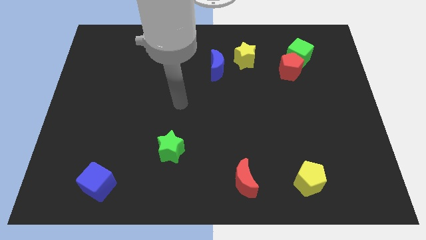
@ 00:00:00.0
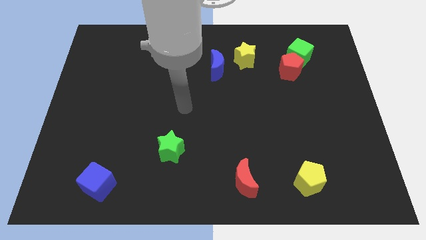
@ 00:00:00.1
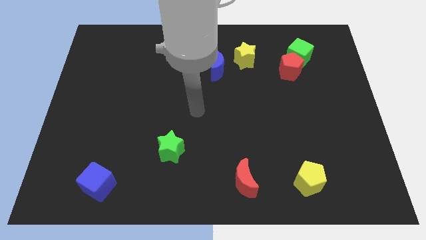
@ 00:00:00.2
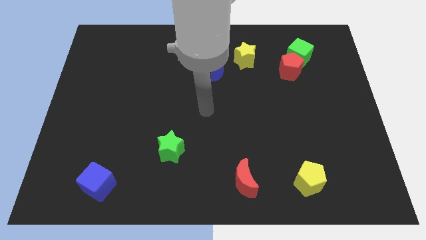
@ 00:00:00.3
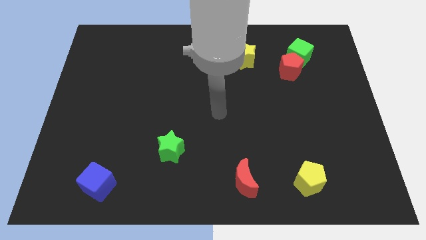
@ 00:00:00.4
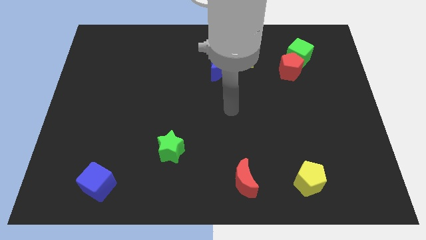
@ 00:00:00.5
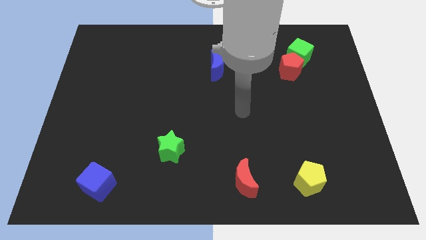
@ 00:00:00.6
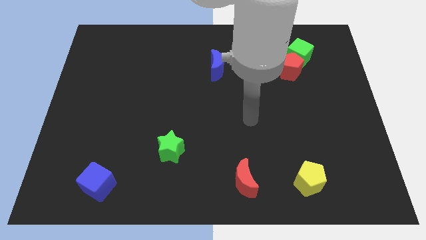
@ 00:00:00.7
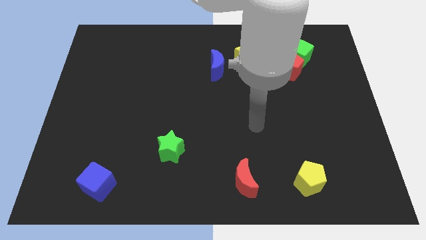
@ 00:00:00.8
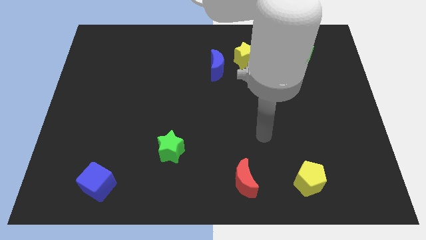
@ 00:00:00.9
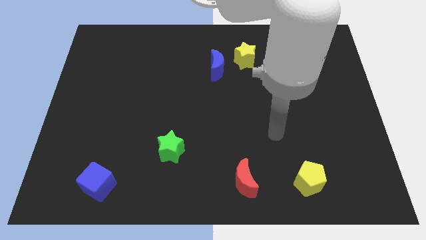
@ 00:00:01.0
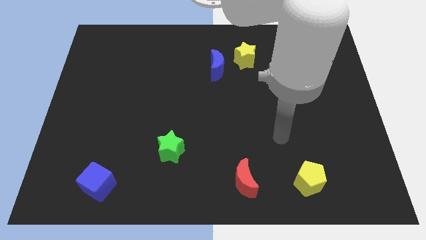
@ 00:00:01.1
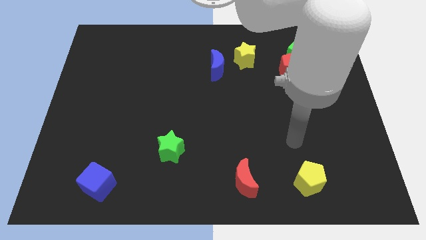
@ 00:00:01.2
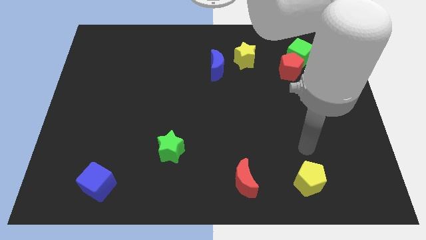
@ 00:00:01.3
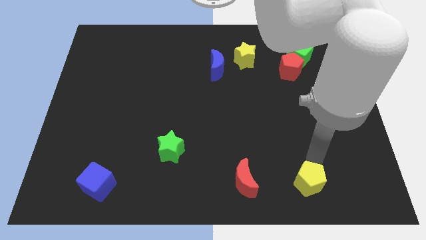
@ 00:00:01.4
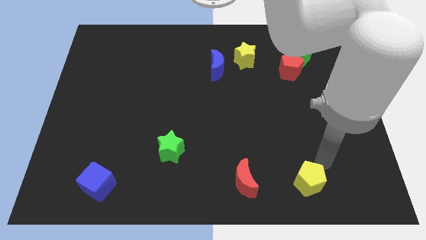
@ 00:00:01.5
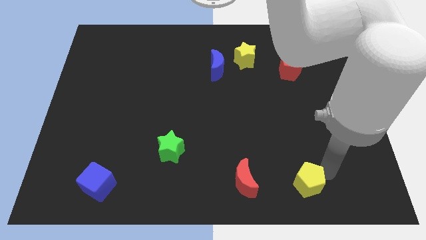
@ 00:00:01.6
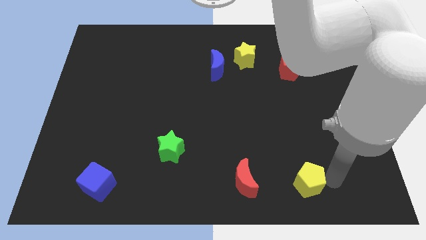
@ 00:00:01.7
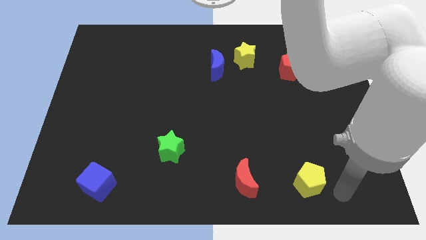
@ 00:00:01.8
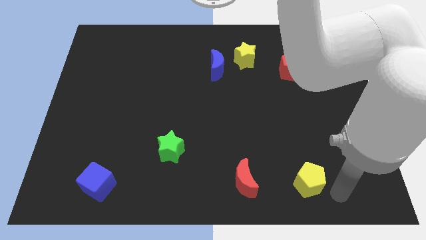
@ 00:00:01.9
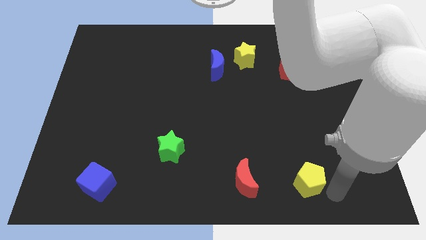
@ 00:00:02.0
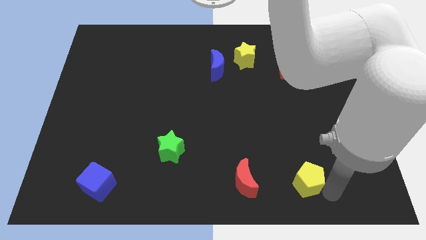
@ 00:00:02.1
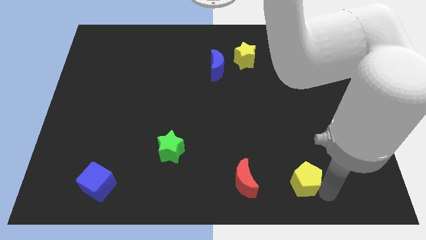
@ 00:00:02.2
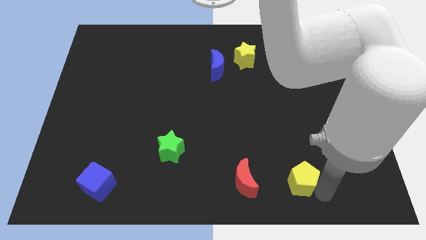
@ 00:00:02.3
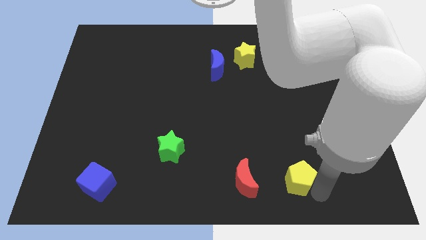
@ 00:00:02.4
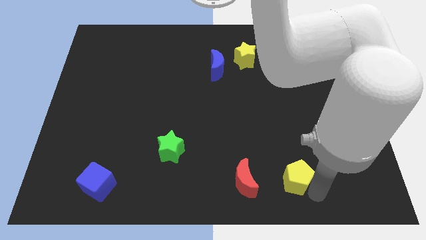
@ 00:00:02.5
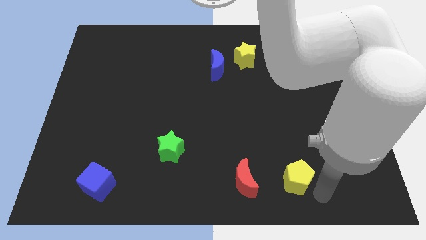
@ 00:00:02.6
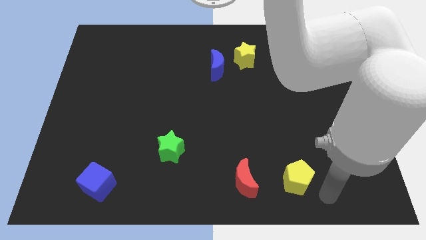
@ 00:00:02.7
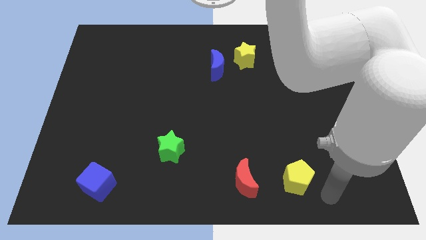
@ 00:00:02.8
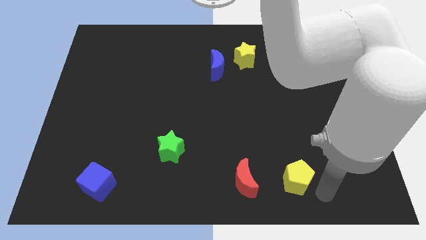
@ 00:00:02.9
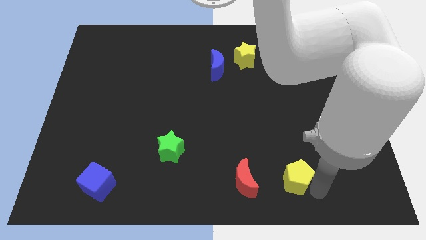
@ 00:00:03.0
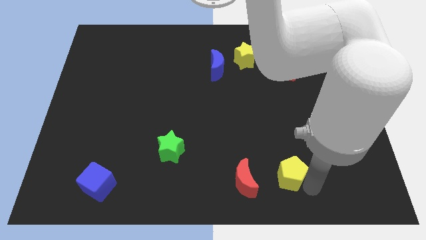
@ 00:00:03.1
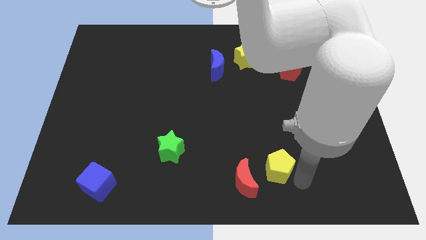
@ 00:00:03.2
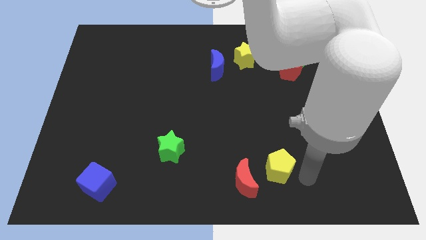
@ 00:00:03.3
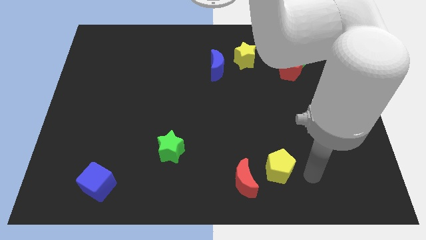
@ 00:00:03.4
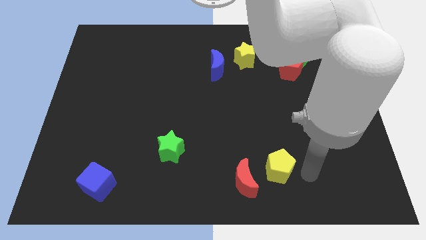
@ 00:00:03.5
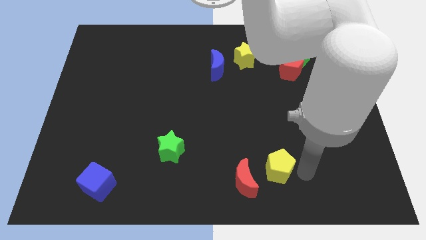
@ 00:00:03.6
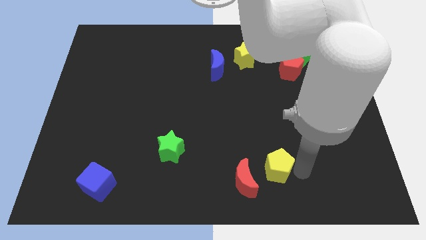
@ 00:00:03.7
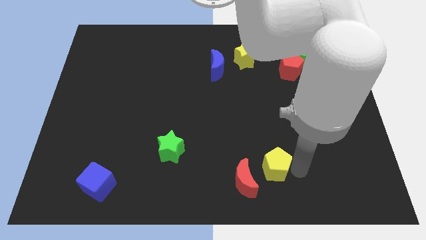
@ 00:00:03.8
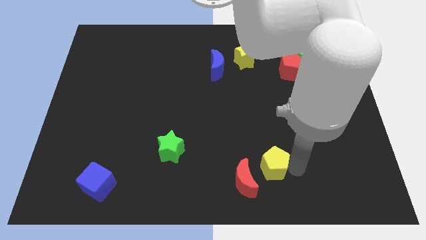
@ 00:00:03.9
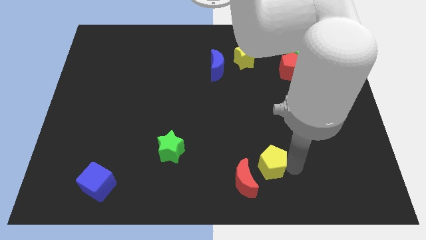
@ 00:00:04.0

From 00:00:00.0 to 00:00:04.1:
push the yellow pentagon a little bit left

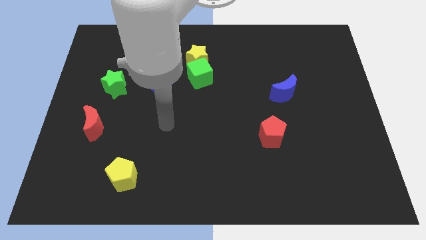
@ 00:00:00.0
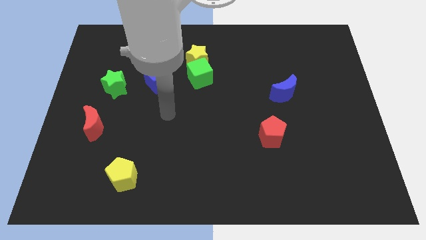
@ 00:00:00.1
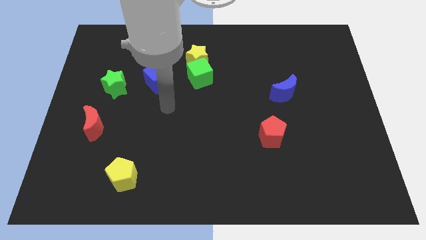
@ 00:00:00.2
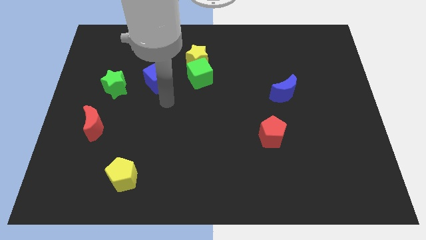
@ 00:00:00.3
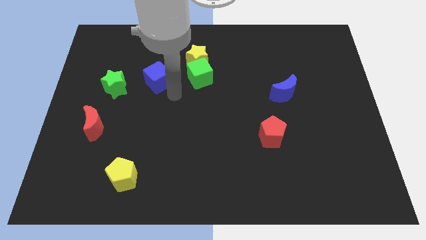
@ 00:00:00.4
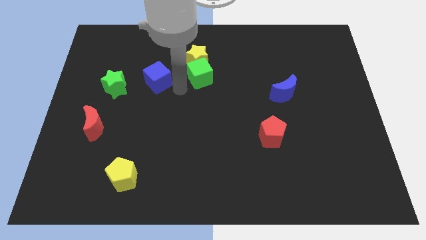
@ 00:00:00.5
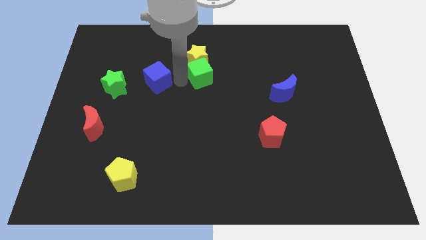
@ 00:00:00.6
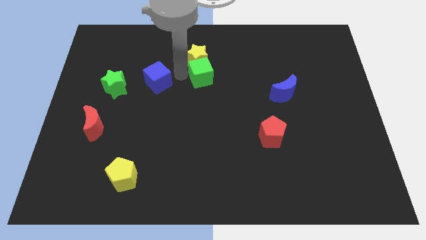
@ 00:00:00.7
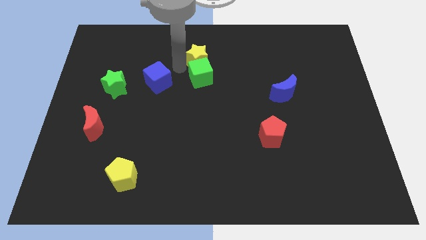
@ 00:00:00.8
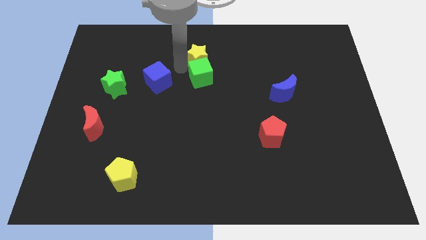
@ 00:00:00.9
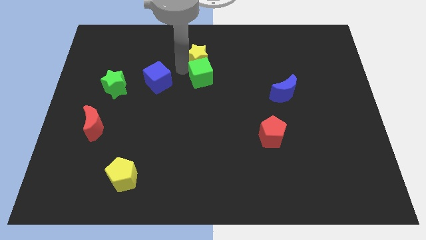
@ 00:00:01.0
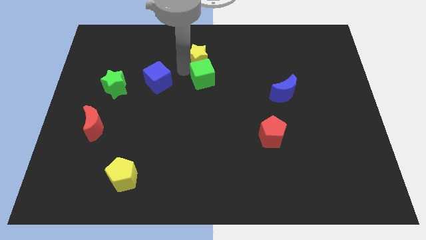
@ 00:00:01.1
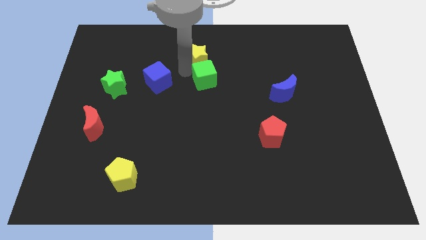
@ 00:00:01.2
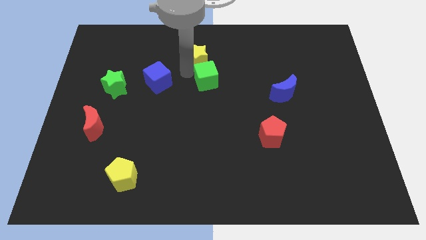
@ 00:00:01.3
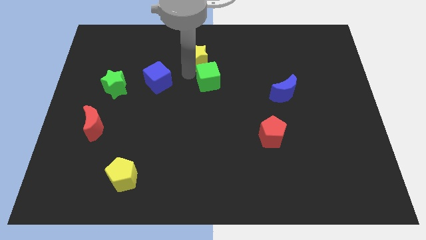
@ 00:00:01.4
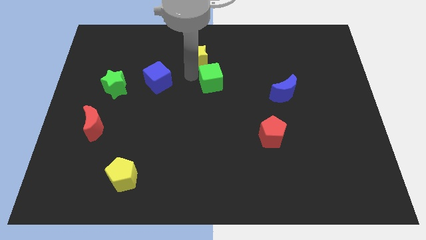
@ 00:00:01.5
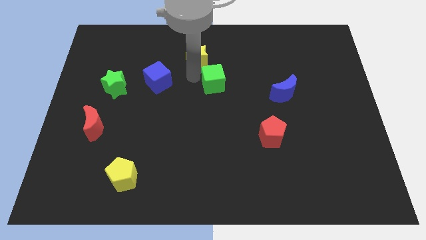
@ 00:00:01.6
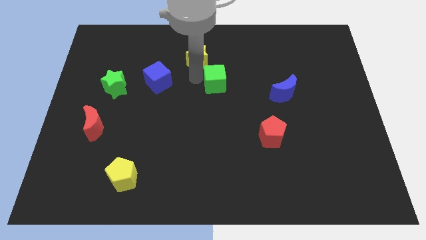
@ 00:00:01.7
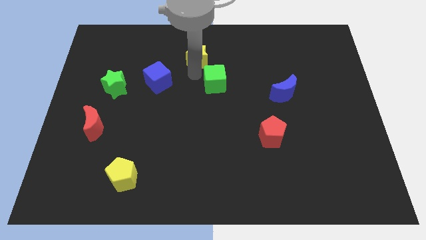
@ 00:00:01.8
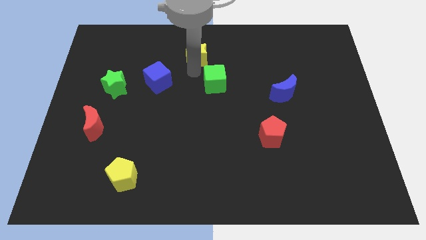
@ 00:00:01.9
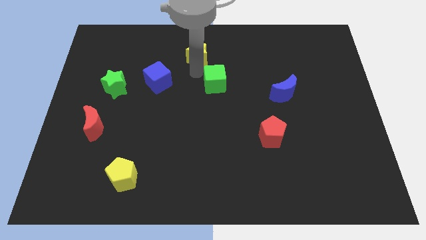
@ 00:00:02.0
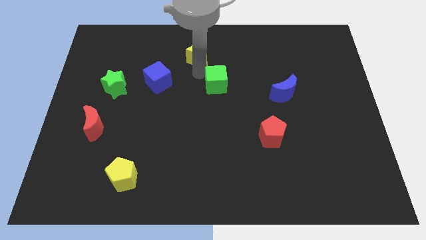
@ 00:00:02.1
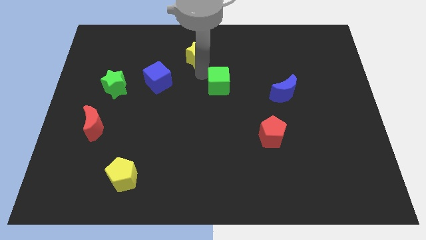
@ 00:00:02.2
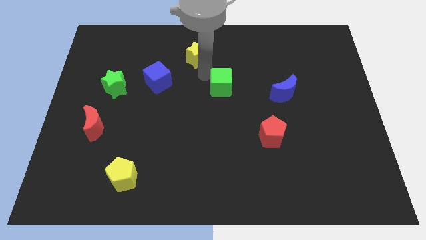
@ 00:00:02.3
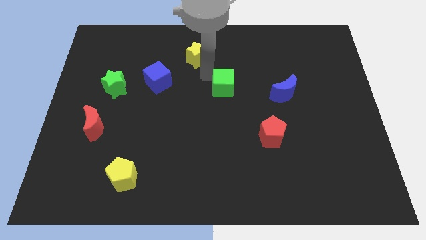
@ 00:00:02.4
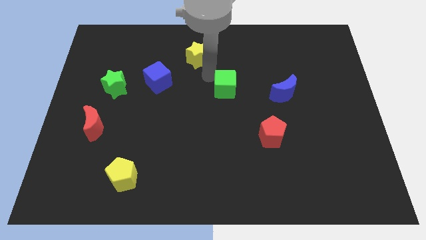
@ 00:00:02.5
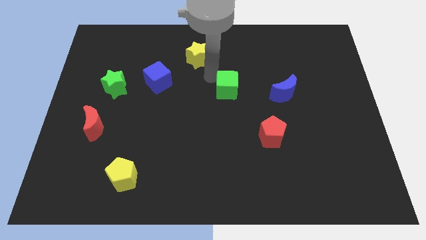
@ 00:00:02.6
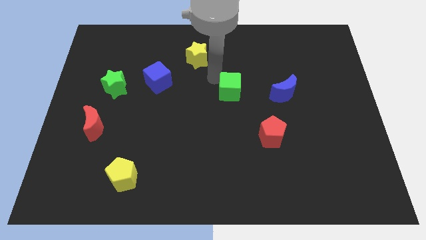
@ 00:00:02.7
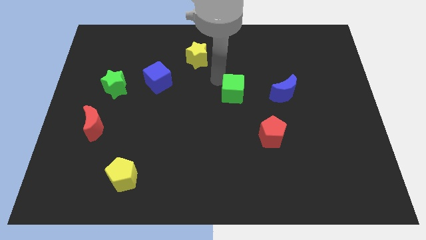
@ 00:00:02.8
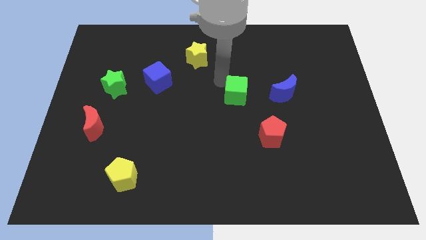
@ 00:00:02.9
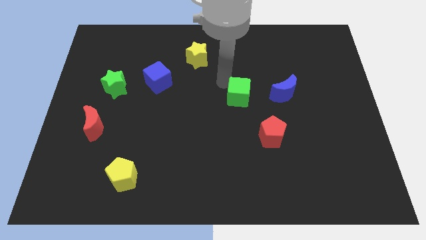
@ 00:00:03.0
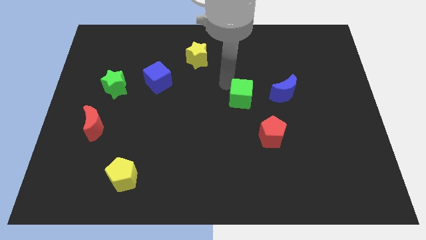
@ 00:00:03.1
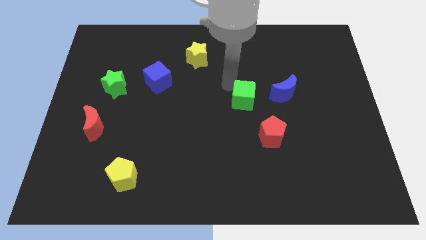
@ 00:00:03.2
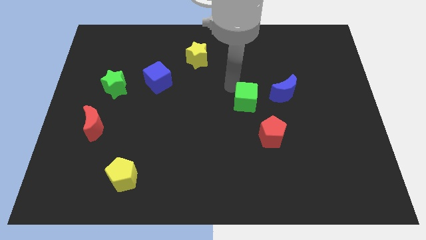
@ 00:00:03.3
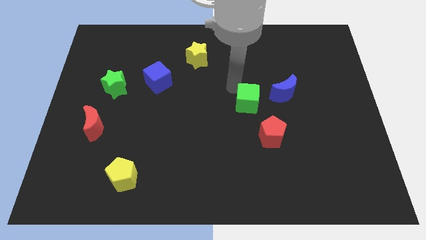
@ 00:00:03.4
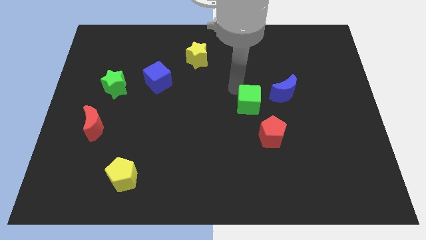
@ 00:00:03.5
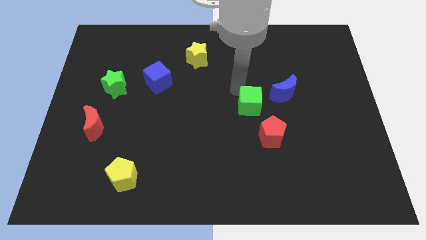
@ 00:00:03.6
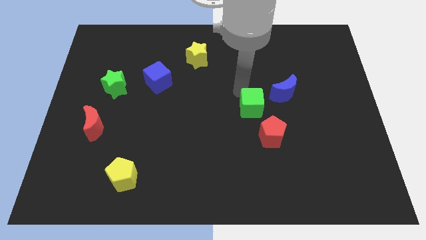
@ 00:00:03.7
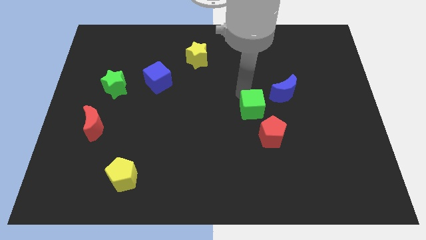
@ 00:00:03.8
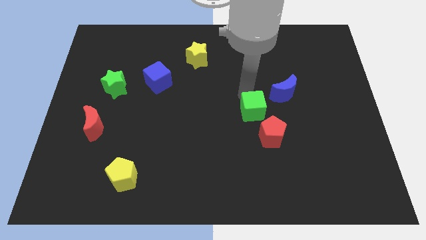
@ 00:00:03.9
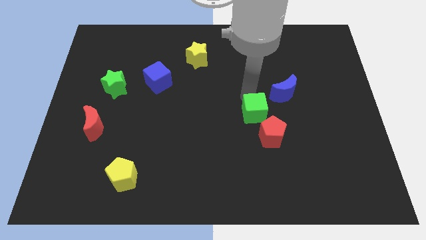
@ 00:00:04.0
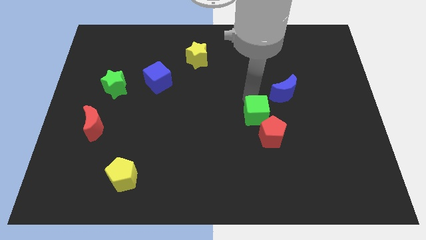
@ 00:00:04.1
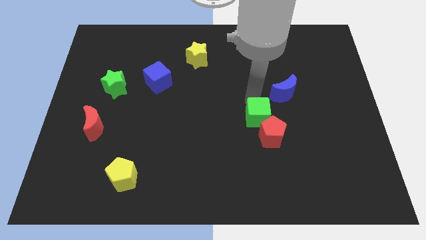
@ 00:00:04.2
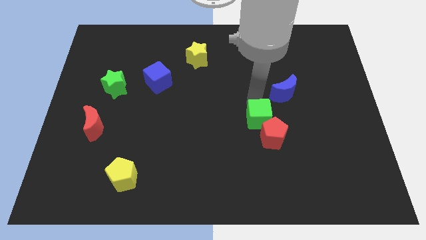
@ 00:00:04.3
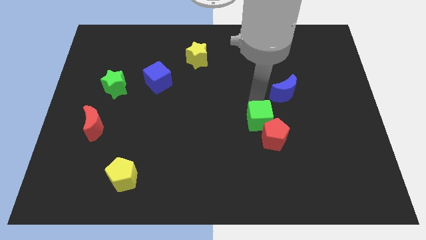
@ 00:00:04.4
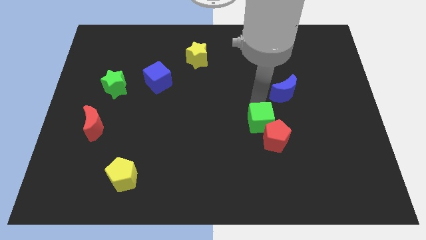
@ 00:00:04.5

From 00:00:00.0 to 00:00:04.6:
push the green cube diagonally down and right
